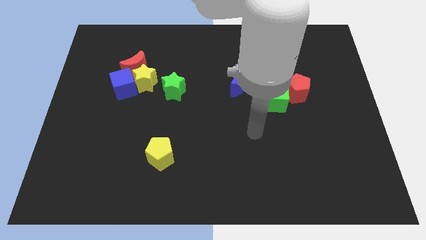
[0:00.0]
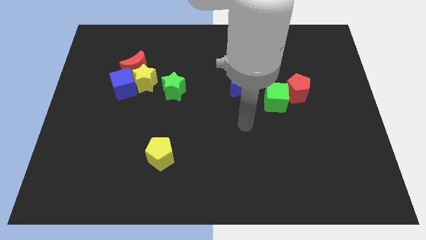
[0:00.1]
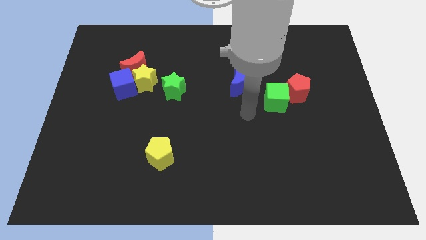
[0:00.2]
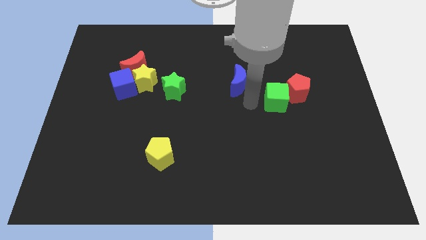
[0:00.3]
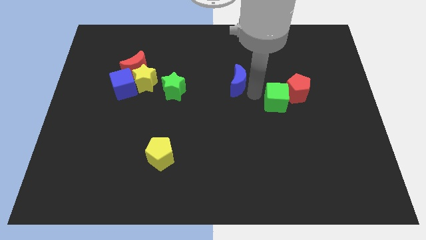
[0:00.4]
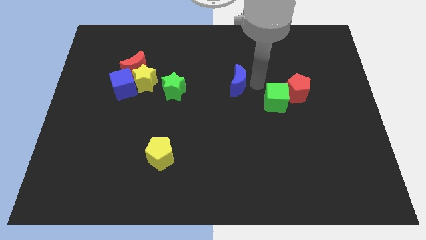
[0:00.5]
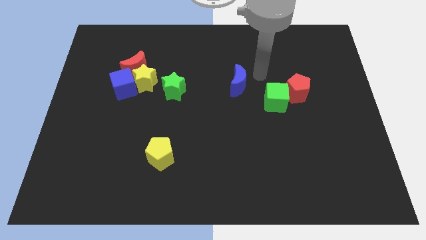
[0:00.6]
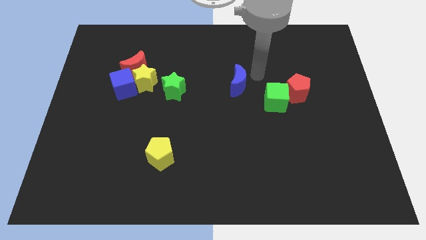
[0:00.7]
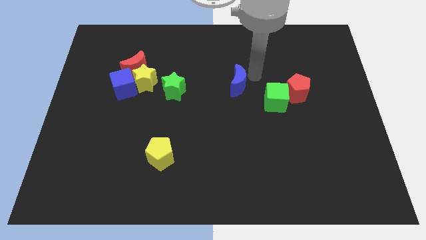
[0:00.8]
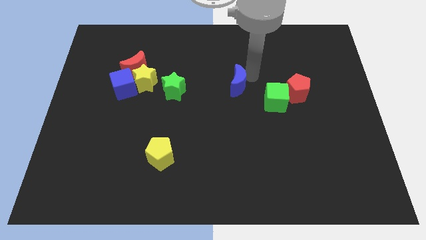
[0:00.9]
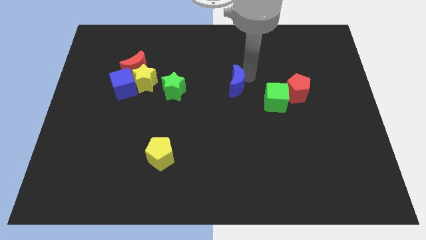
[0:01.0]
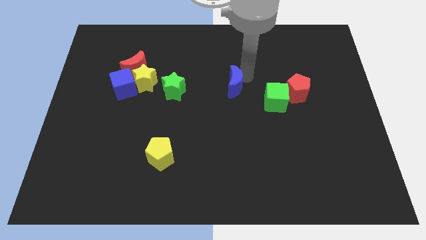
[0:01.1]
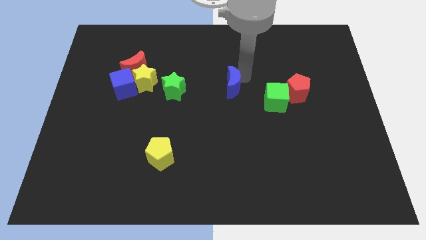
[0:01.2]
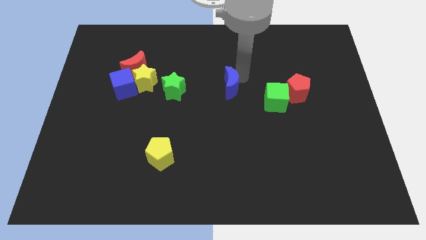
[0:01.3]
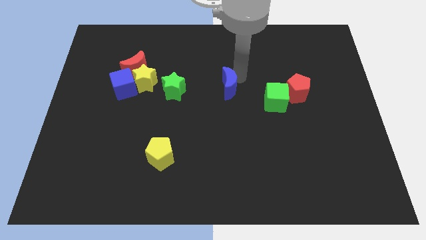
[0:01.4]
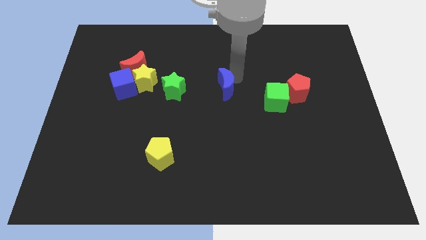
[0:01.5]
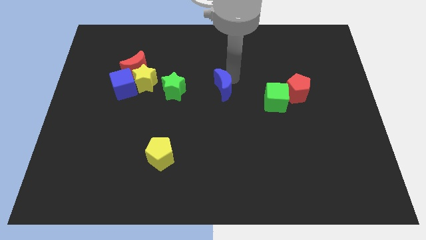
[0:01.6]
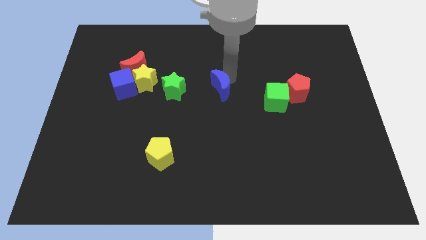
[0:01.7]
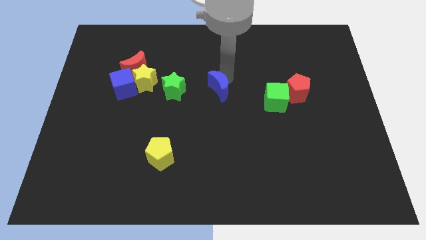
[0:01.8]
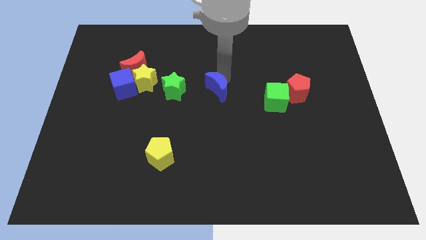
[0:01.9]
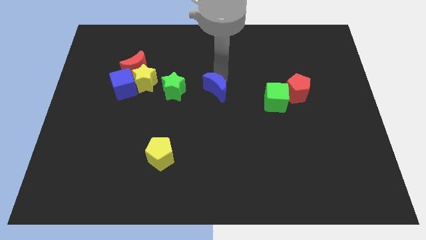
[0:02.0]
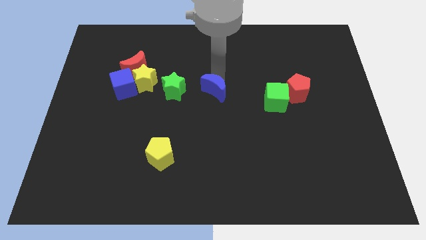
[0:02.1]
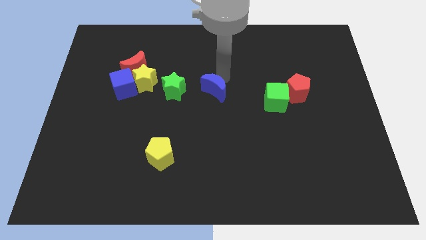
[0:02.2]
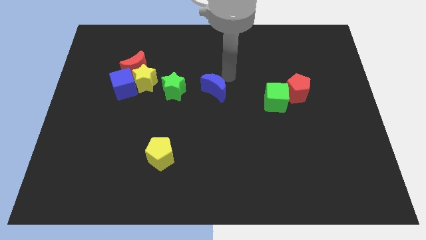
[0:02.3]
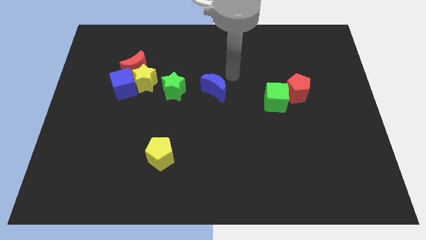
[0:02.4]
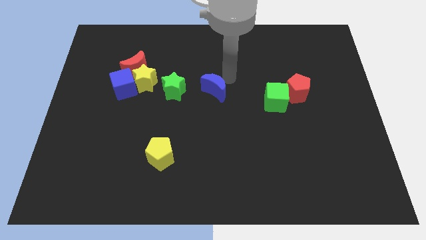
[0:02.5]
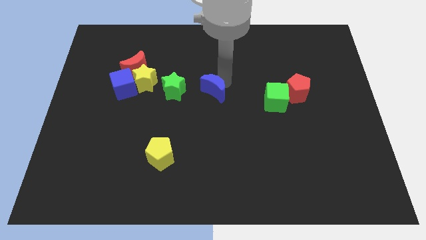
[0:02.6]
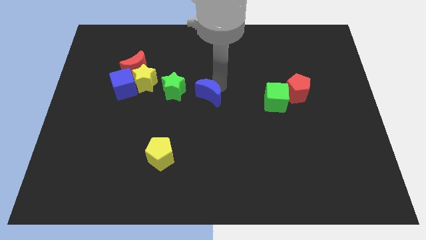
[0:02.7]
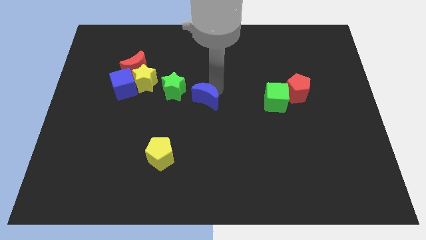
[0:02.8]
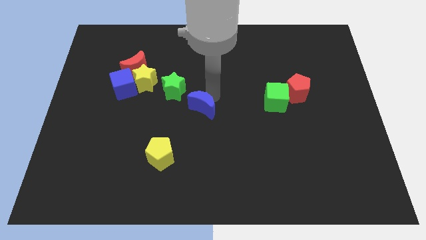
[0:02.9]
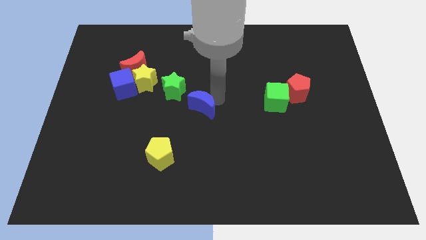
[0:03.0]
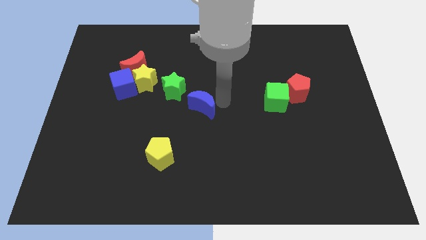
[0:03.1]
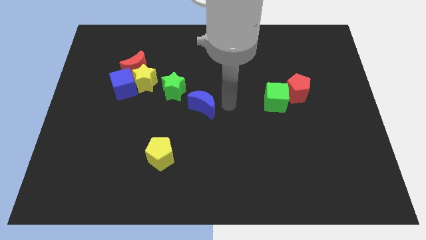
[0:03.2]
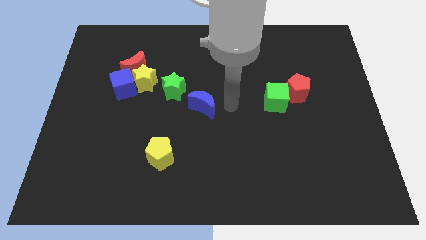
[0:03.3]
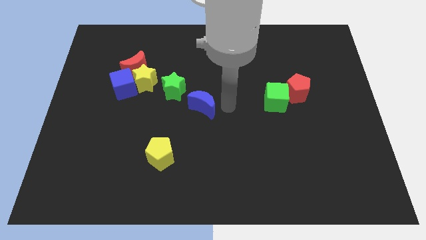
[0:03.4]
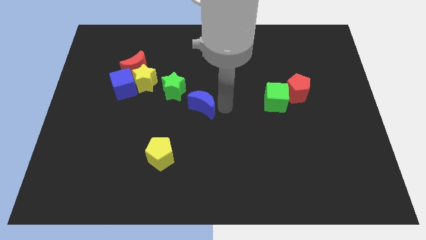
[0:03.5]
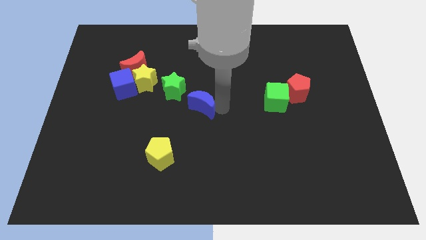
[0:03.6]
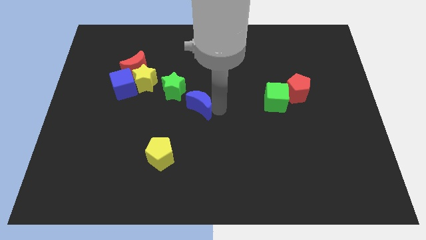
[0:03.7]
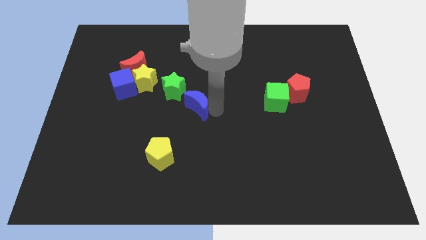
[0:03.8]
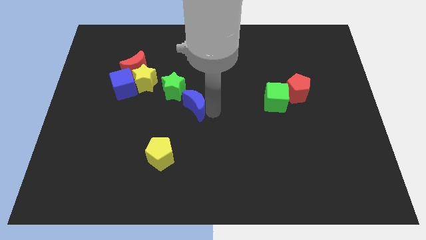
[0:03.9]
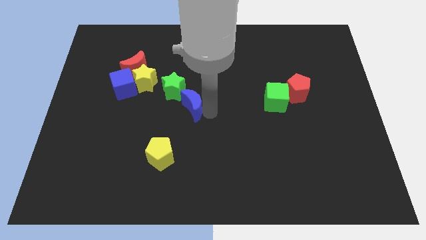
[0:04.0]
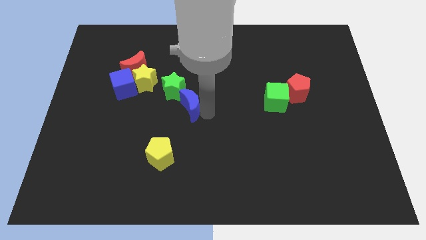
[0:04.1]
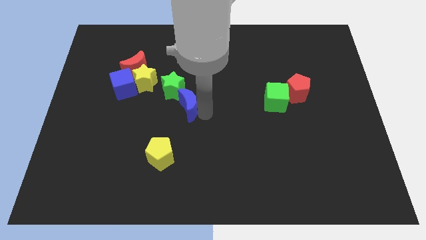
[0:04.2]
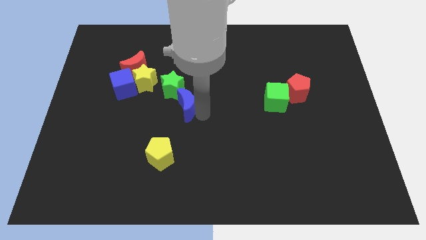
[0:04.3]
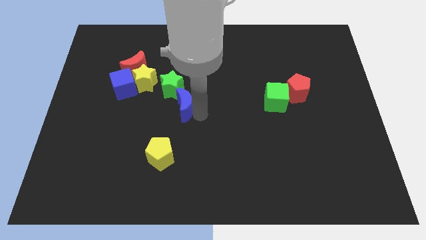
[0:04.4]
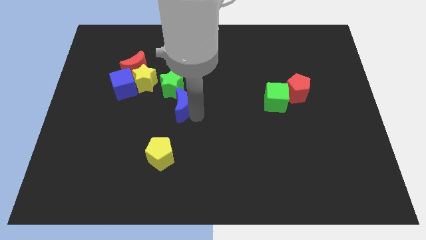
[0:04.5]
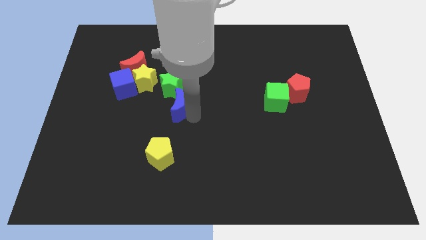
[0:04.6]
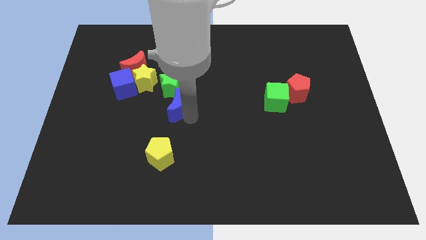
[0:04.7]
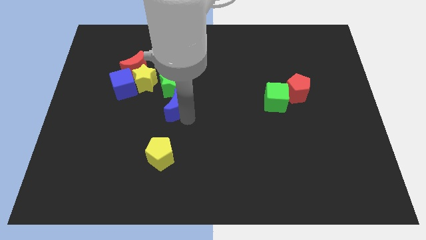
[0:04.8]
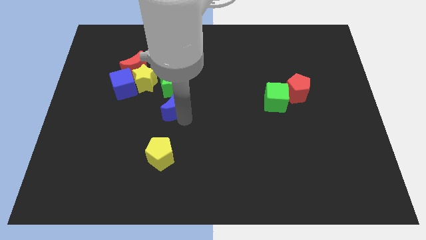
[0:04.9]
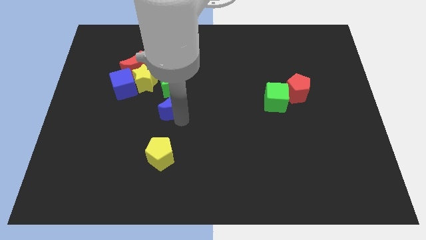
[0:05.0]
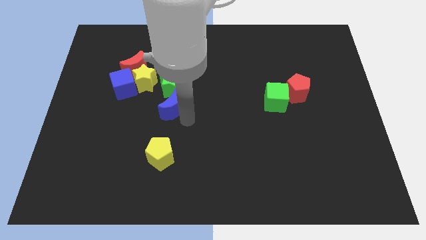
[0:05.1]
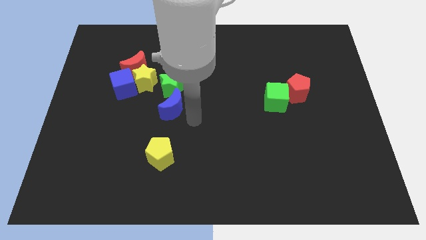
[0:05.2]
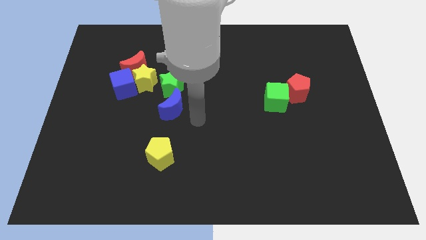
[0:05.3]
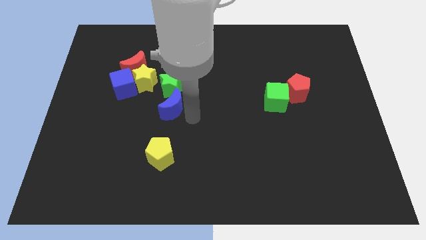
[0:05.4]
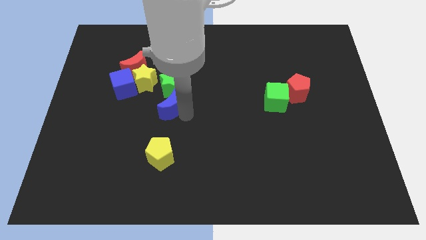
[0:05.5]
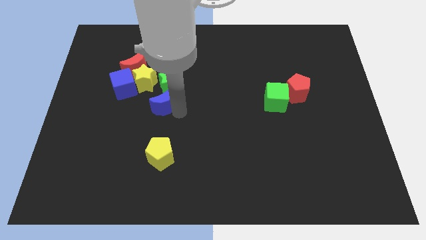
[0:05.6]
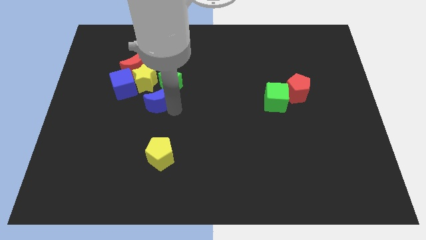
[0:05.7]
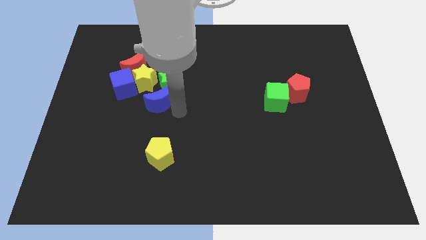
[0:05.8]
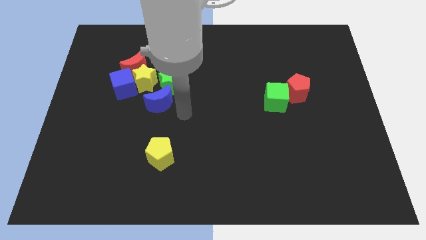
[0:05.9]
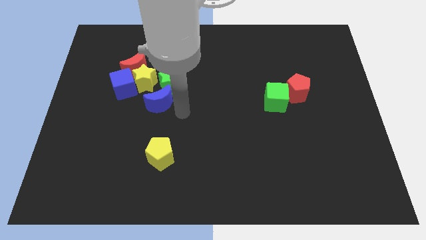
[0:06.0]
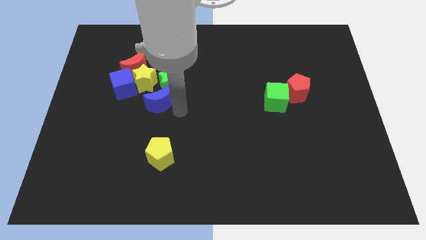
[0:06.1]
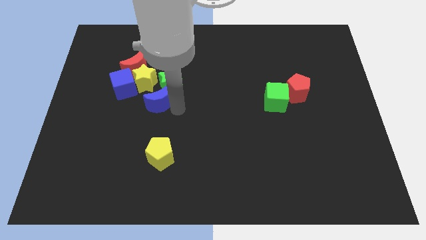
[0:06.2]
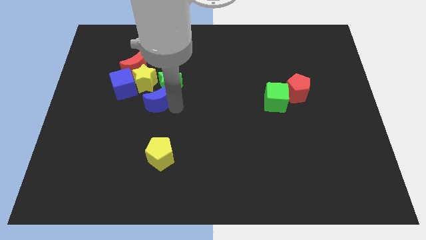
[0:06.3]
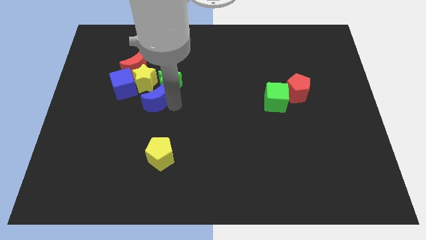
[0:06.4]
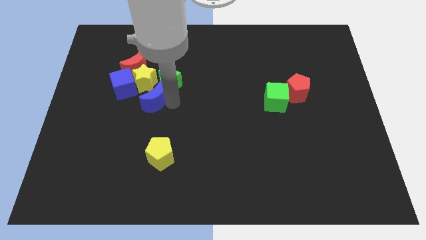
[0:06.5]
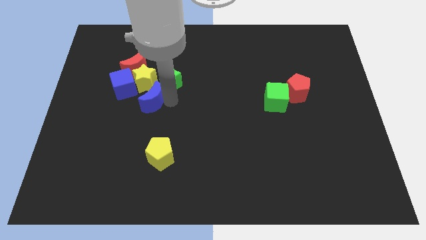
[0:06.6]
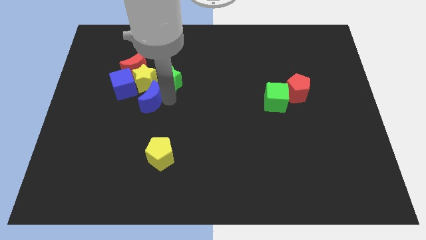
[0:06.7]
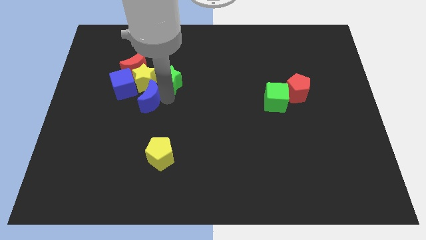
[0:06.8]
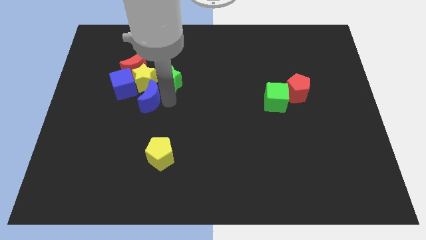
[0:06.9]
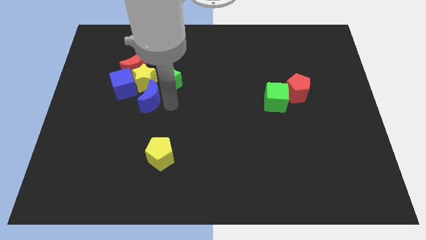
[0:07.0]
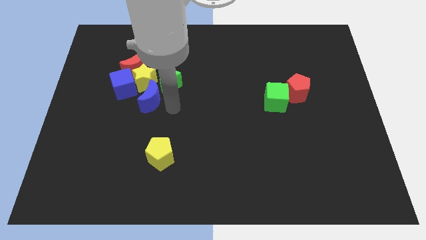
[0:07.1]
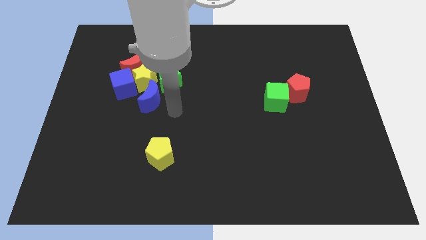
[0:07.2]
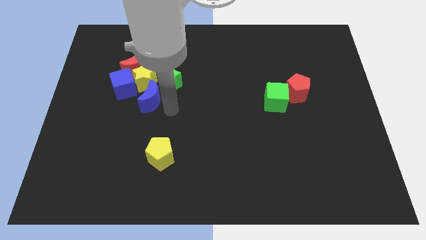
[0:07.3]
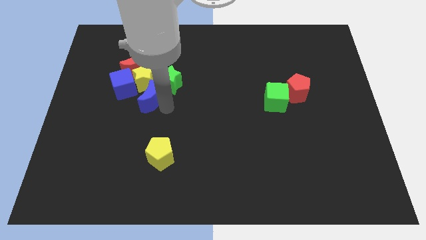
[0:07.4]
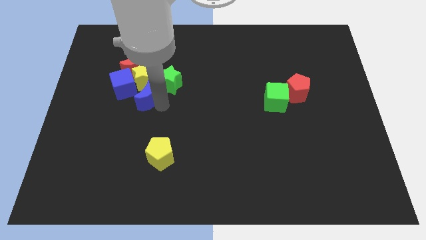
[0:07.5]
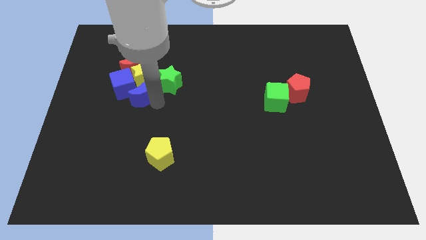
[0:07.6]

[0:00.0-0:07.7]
push the blue moon close to the blue cube
